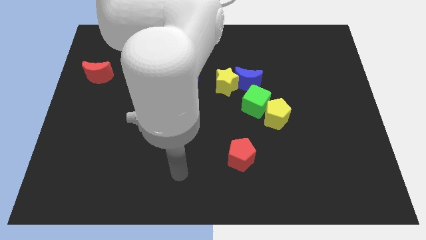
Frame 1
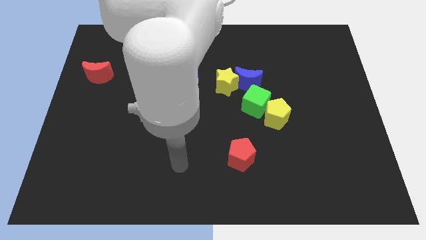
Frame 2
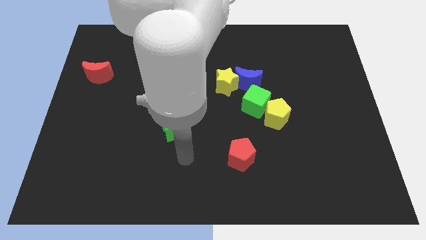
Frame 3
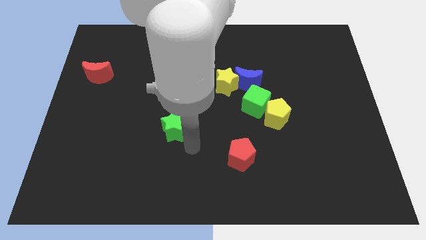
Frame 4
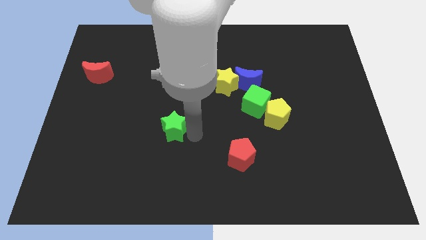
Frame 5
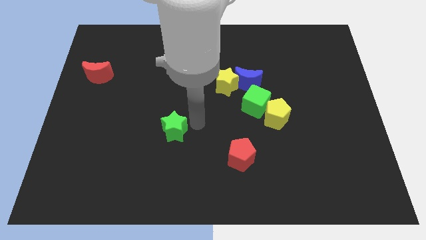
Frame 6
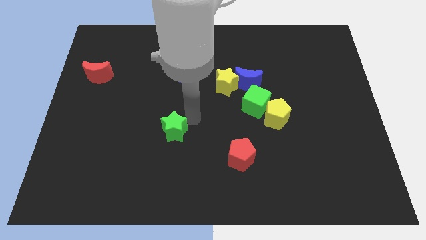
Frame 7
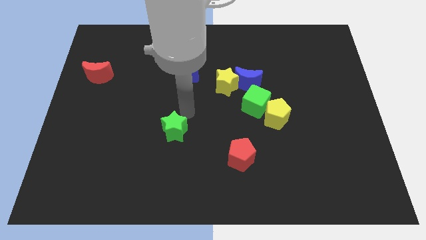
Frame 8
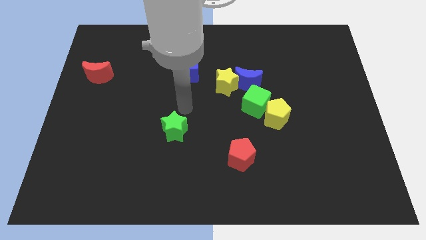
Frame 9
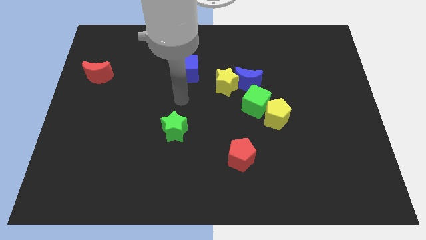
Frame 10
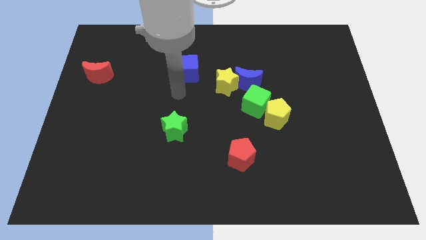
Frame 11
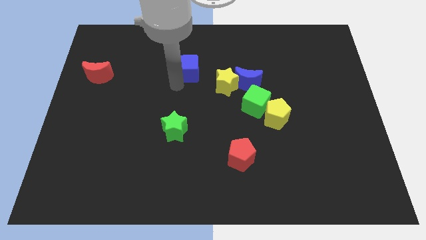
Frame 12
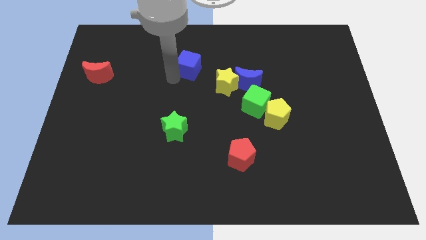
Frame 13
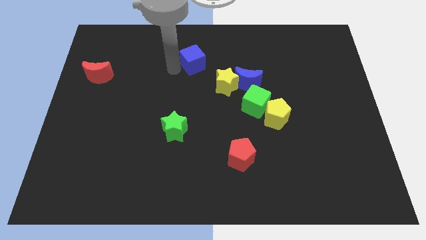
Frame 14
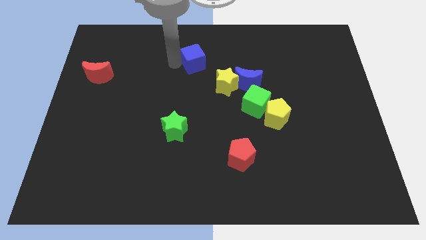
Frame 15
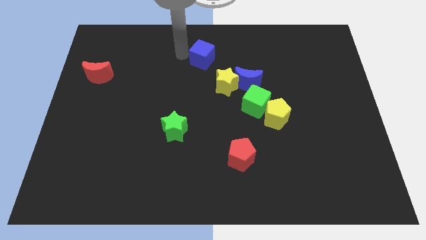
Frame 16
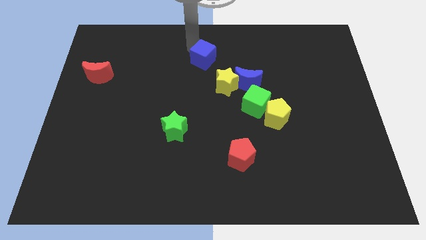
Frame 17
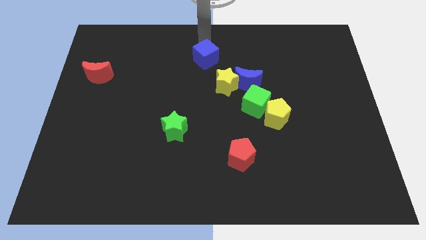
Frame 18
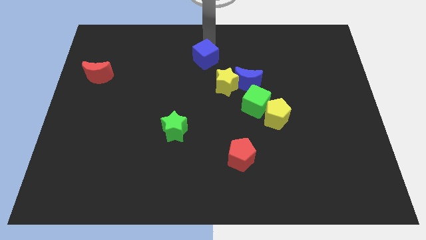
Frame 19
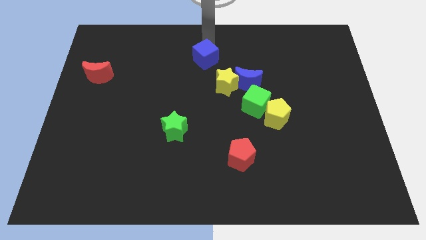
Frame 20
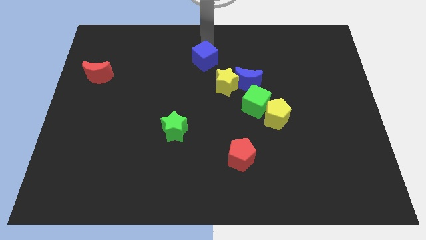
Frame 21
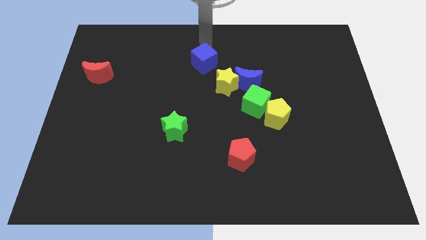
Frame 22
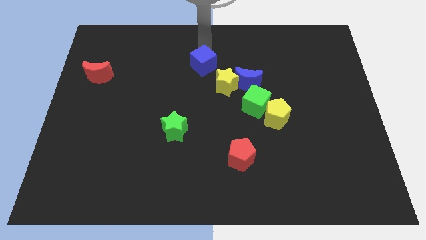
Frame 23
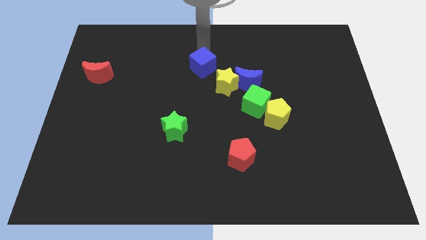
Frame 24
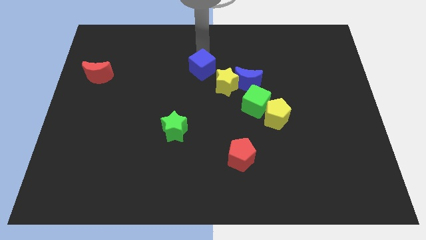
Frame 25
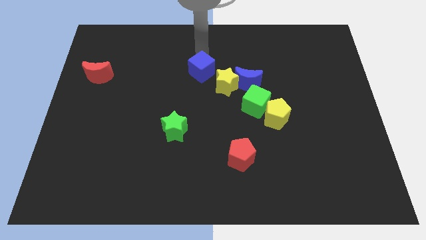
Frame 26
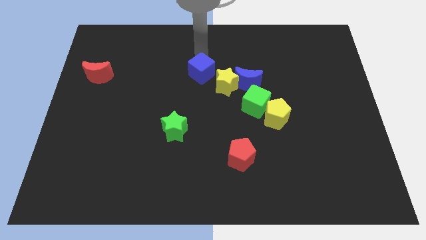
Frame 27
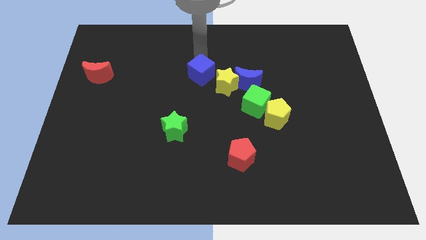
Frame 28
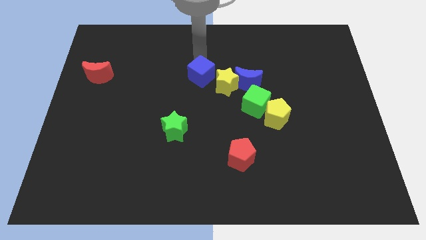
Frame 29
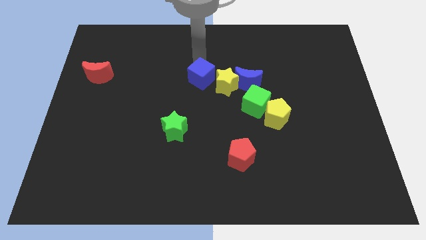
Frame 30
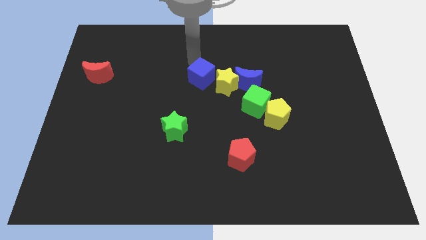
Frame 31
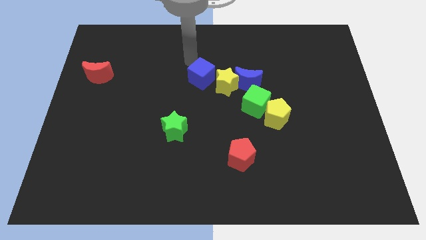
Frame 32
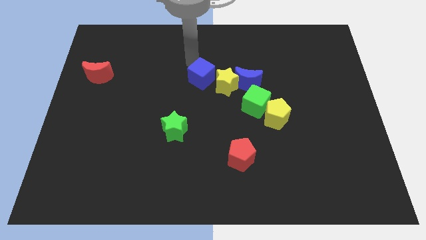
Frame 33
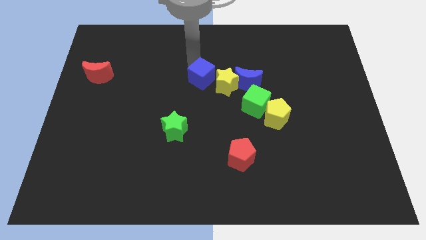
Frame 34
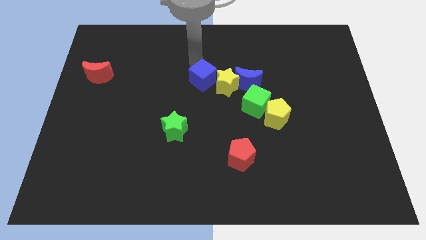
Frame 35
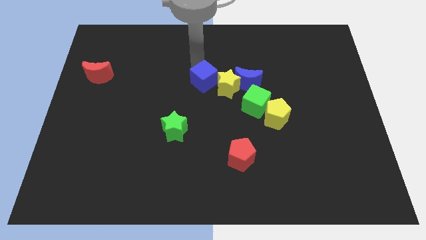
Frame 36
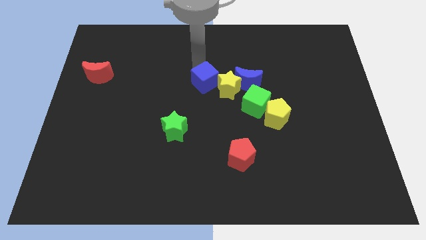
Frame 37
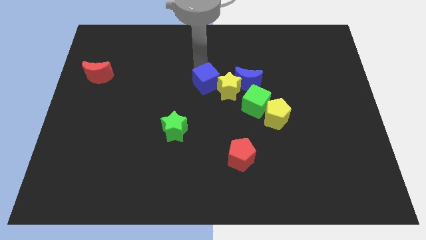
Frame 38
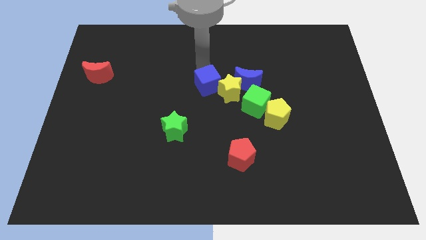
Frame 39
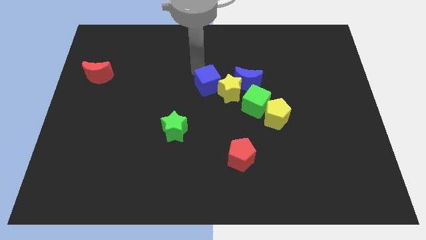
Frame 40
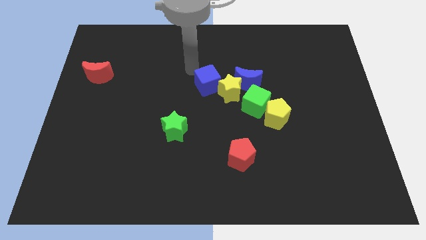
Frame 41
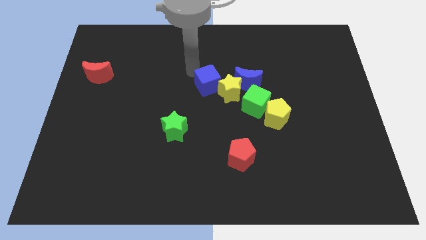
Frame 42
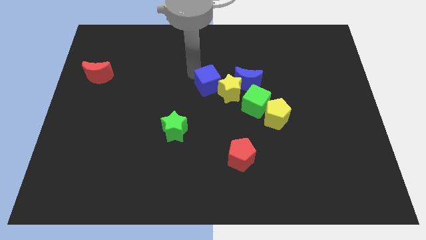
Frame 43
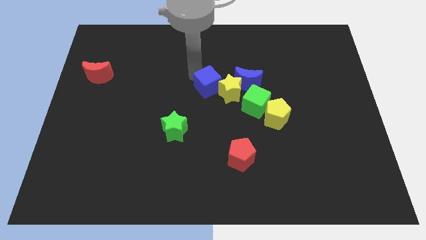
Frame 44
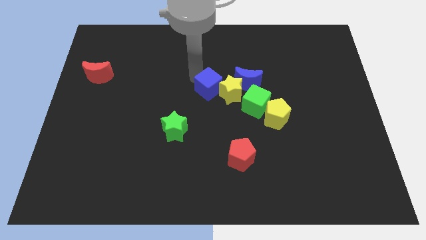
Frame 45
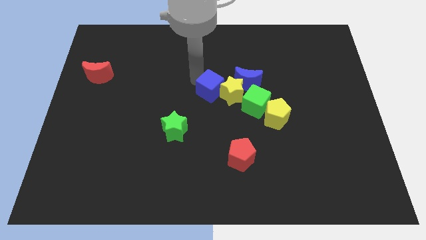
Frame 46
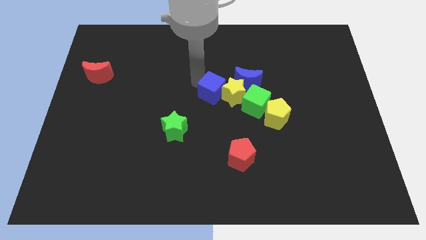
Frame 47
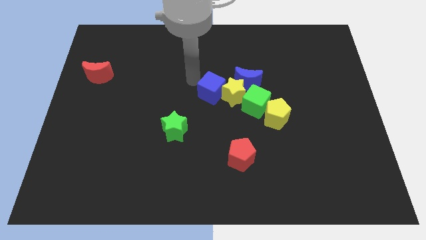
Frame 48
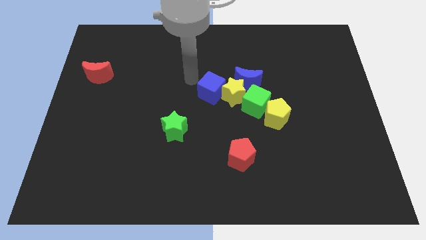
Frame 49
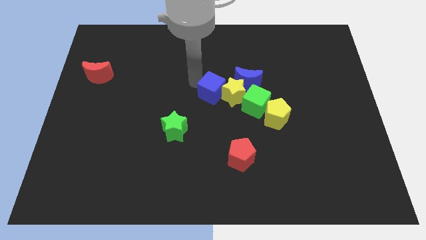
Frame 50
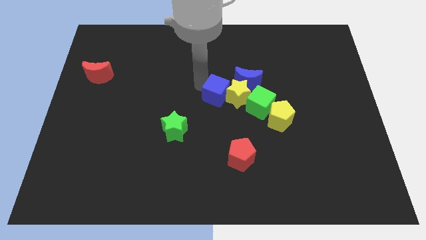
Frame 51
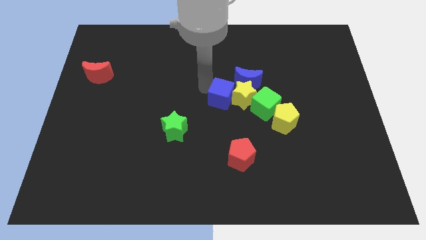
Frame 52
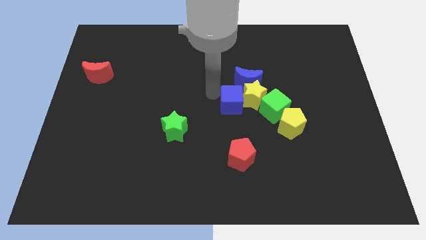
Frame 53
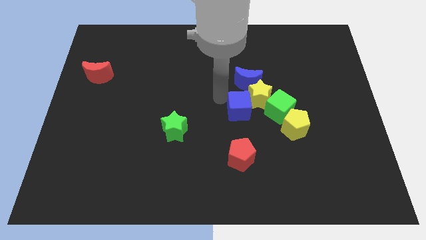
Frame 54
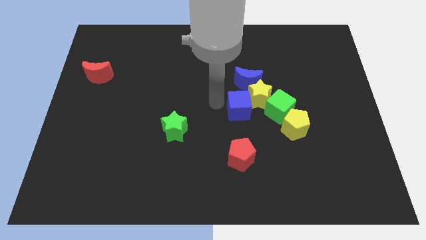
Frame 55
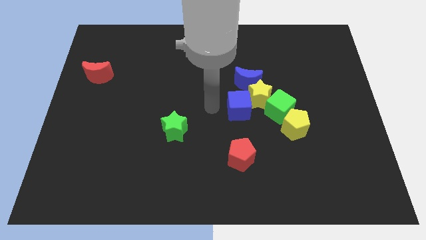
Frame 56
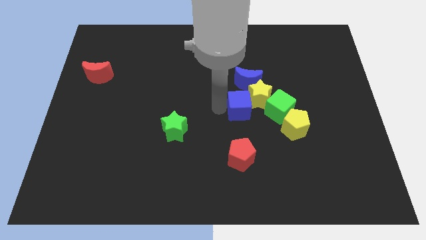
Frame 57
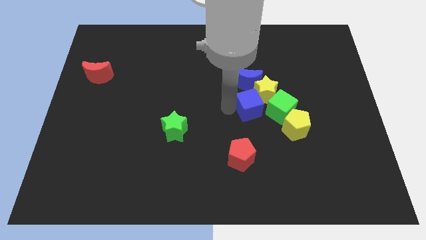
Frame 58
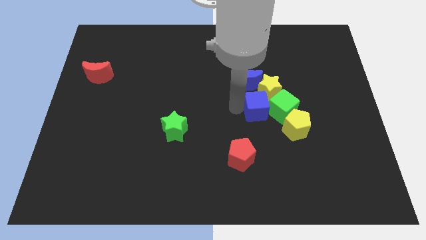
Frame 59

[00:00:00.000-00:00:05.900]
push the blue cube towards the green cube

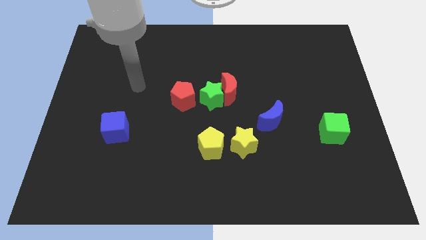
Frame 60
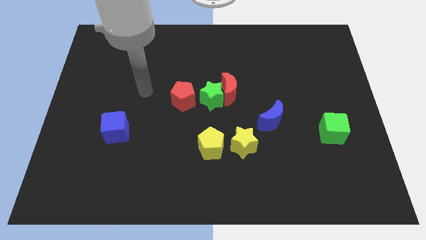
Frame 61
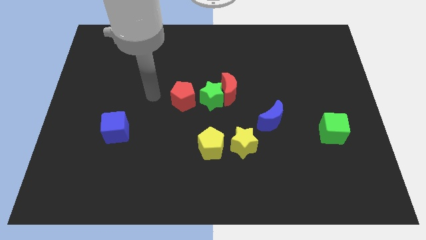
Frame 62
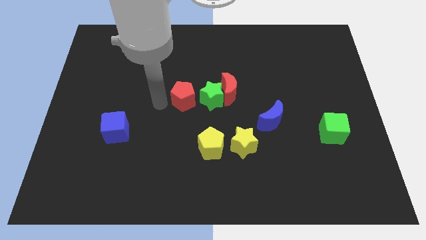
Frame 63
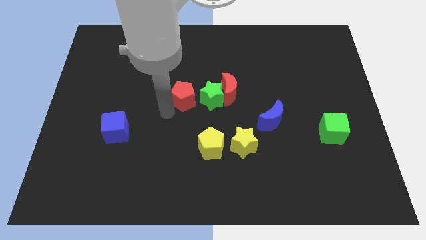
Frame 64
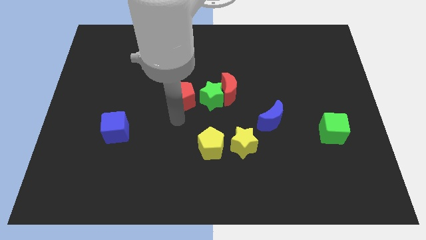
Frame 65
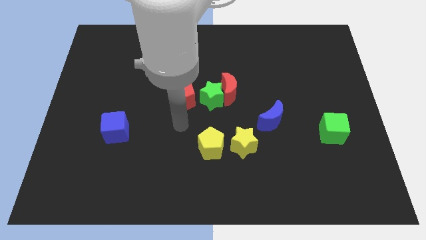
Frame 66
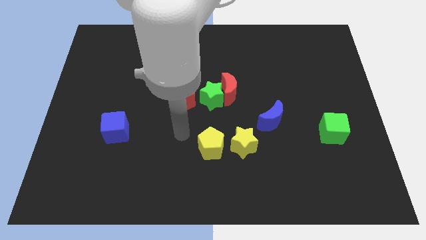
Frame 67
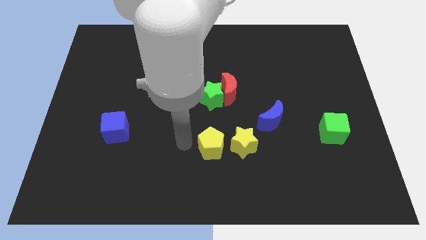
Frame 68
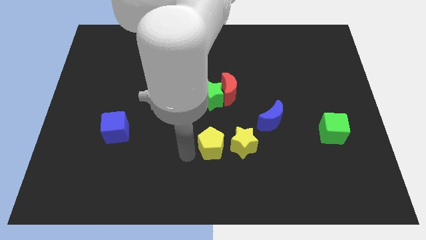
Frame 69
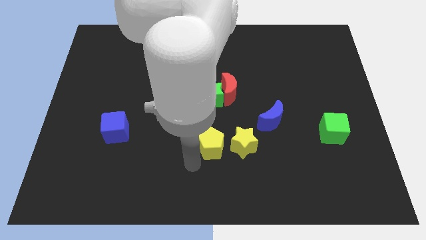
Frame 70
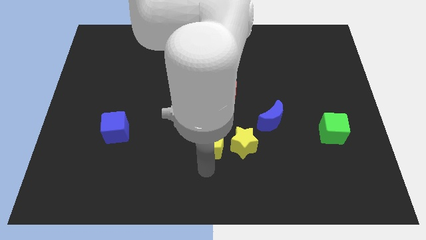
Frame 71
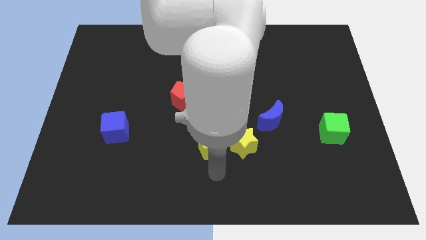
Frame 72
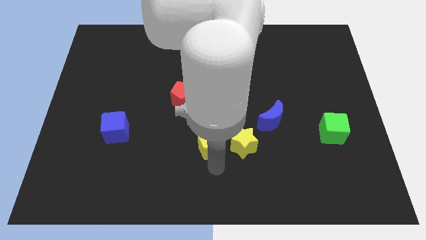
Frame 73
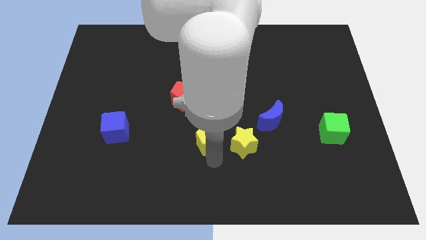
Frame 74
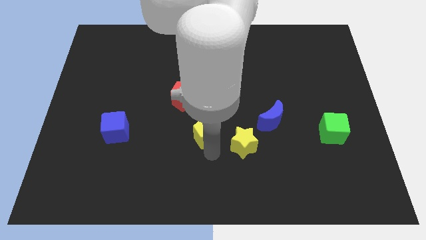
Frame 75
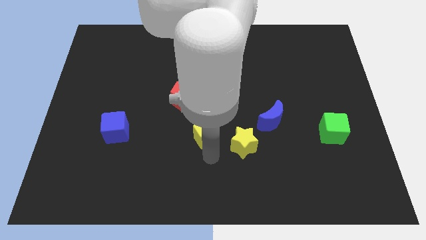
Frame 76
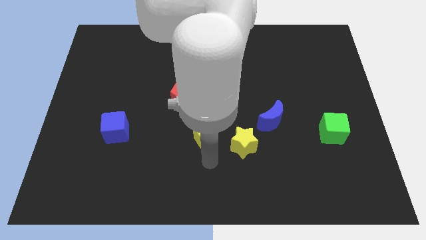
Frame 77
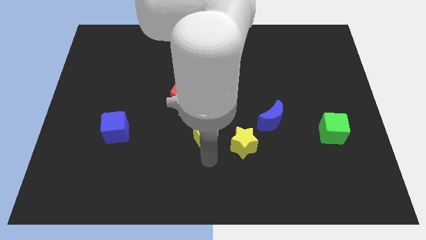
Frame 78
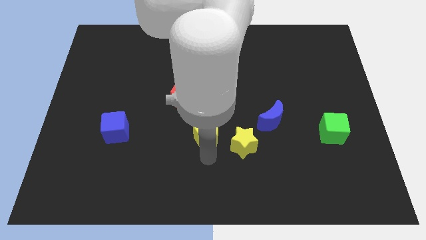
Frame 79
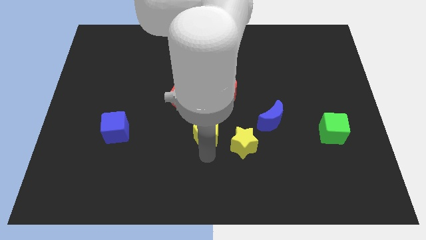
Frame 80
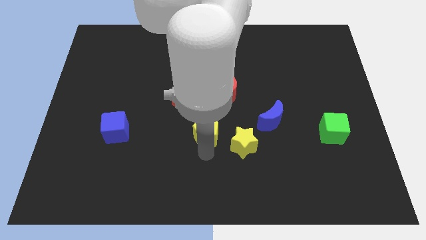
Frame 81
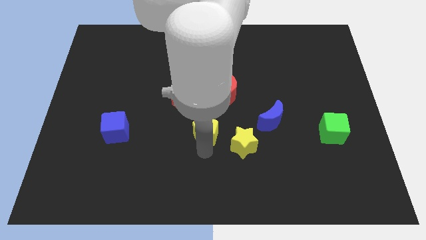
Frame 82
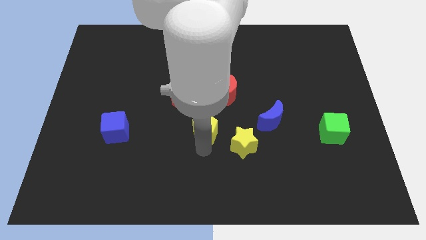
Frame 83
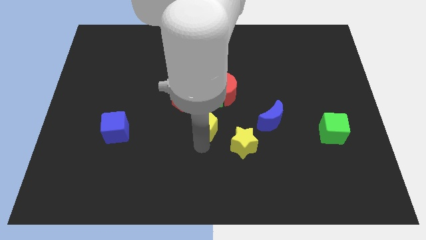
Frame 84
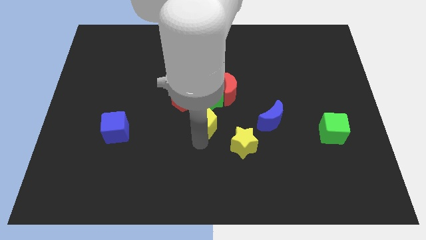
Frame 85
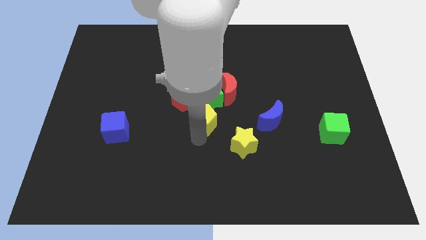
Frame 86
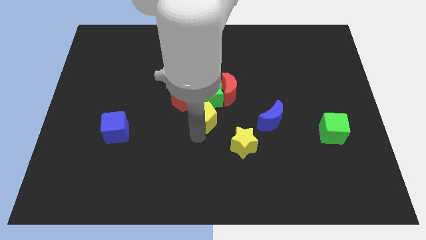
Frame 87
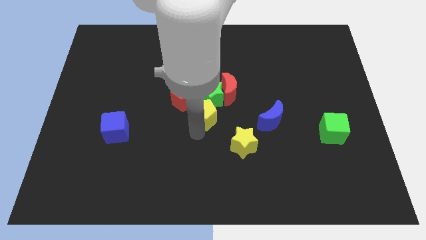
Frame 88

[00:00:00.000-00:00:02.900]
push the yellow pentagon towards the green star
